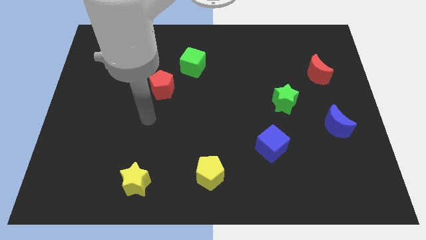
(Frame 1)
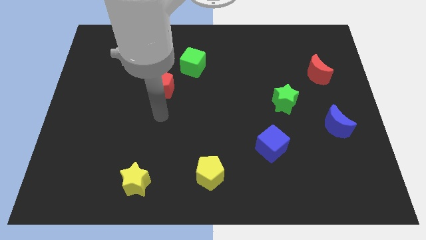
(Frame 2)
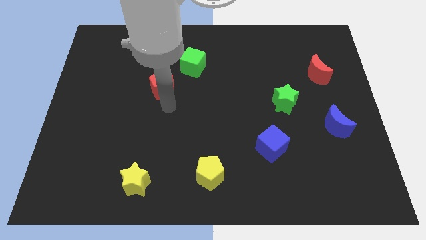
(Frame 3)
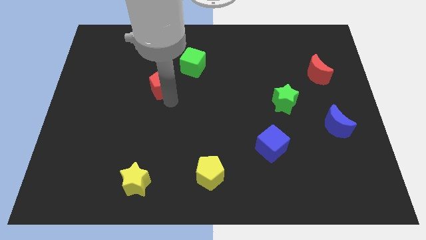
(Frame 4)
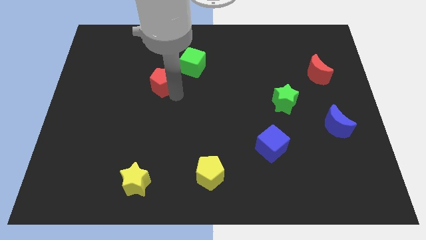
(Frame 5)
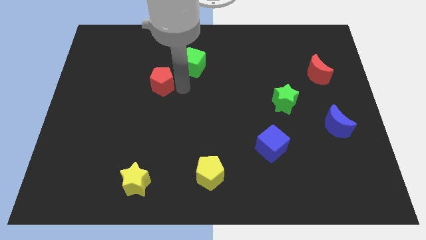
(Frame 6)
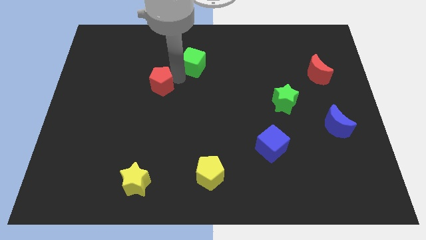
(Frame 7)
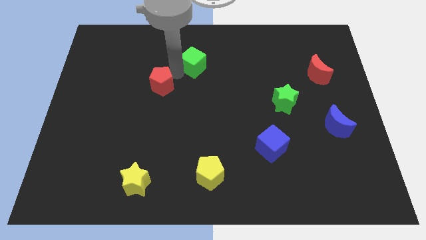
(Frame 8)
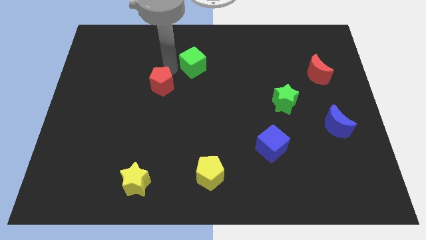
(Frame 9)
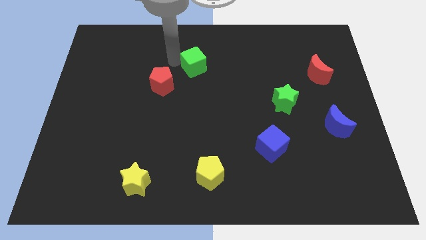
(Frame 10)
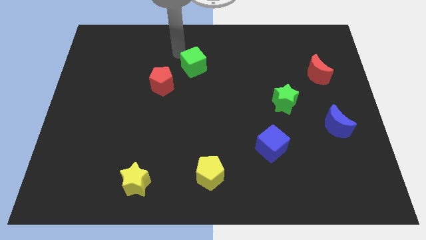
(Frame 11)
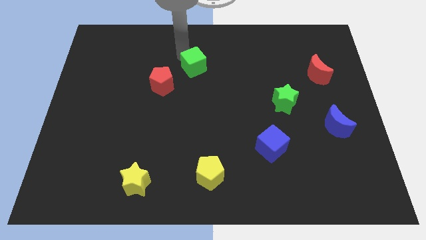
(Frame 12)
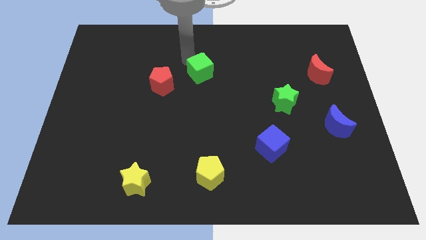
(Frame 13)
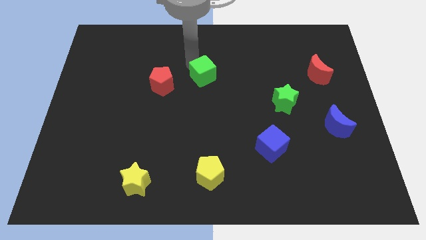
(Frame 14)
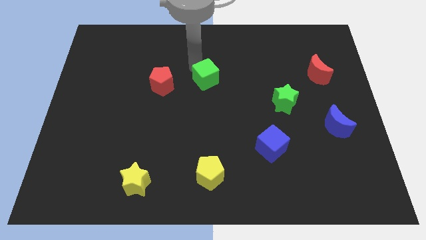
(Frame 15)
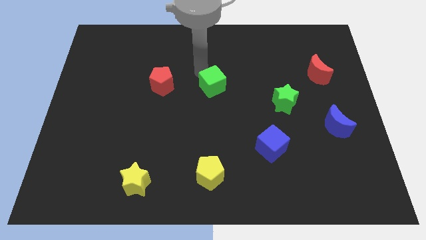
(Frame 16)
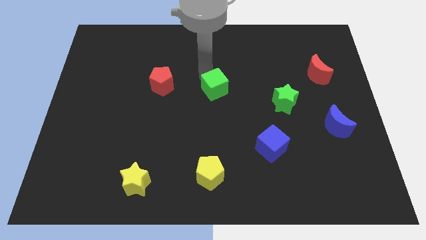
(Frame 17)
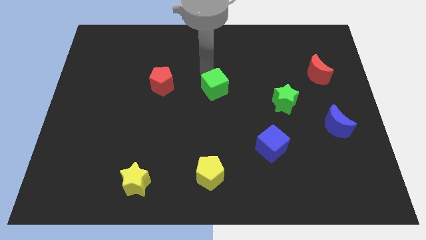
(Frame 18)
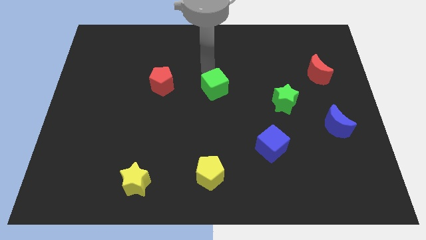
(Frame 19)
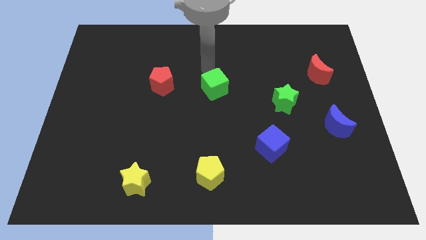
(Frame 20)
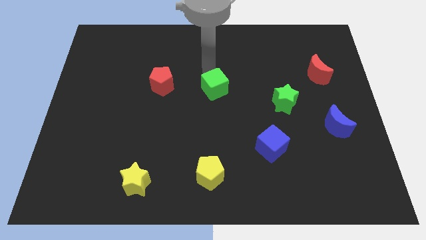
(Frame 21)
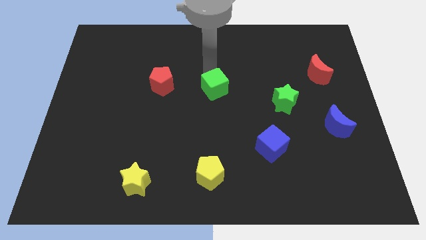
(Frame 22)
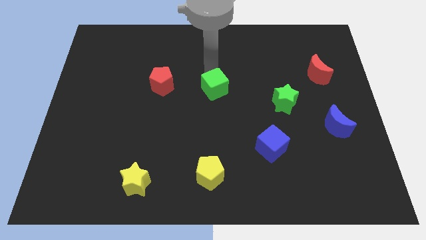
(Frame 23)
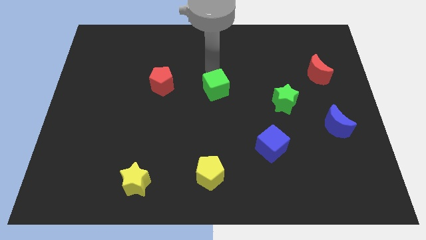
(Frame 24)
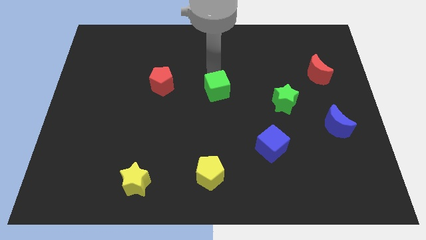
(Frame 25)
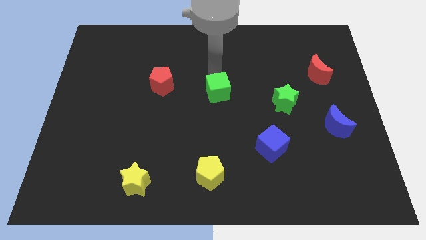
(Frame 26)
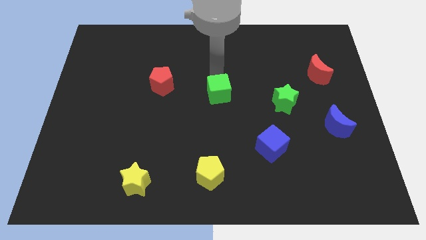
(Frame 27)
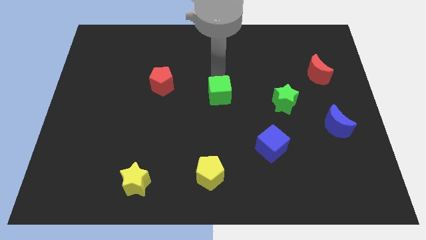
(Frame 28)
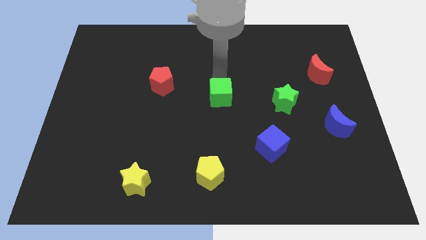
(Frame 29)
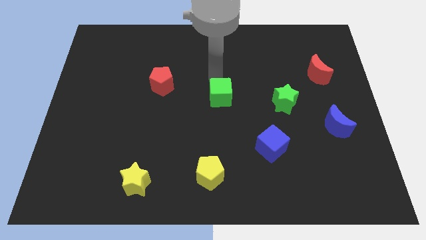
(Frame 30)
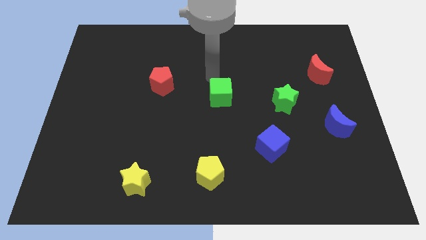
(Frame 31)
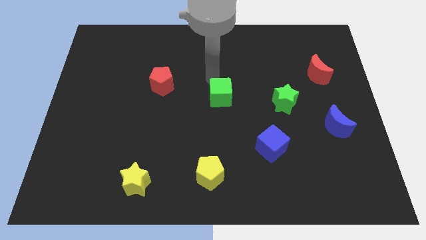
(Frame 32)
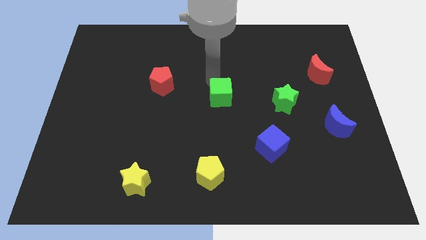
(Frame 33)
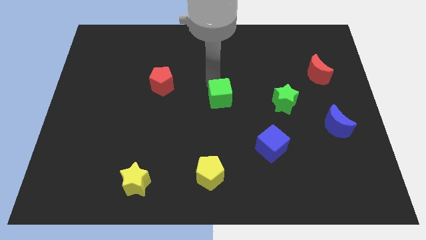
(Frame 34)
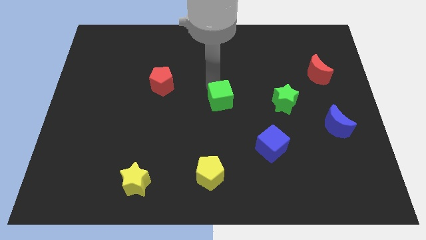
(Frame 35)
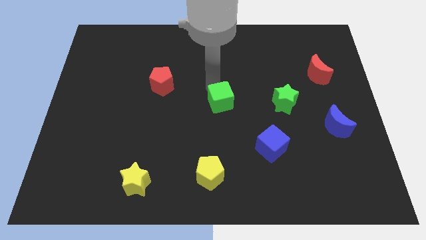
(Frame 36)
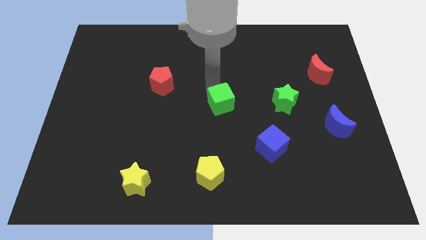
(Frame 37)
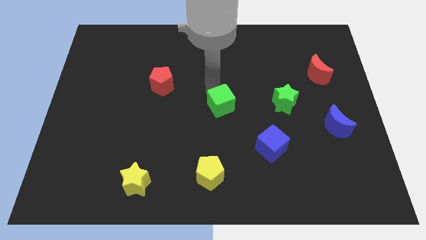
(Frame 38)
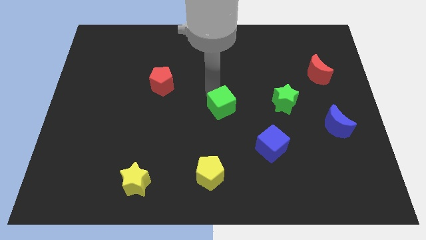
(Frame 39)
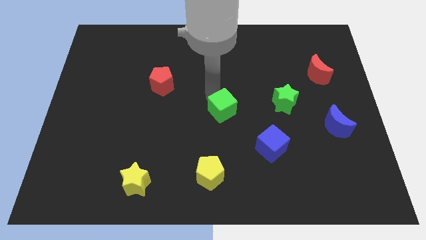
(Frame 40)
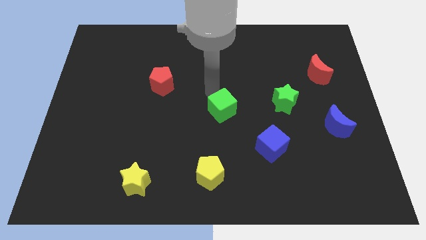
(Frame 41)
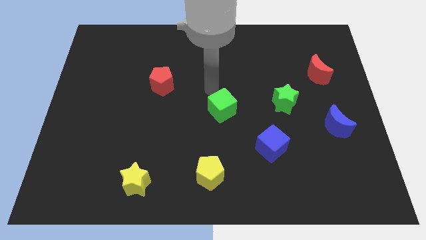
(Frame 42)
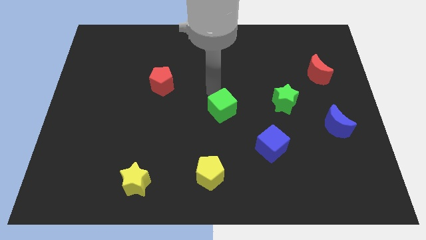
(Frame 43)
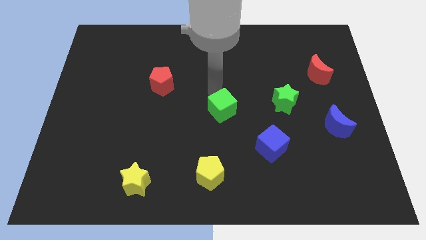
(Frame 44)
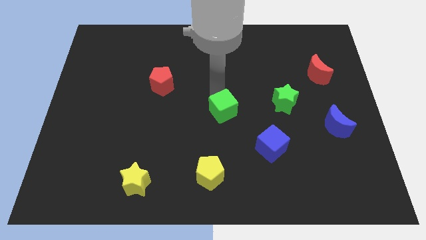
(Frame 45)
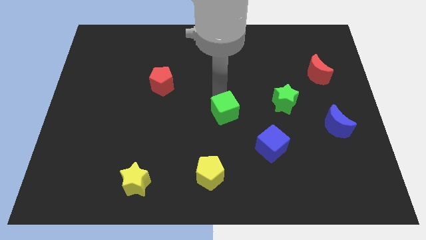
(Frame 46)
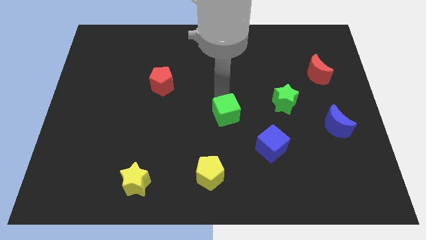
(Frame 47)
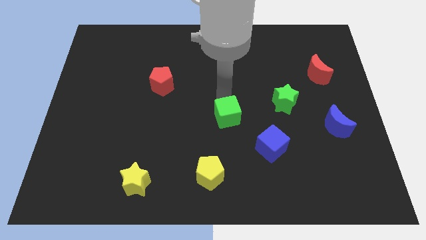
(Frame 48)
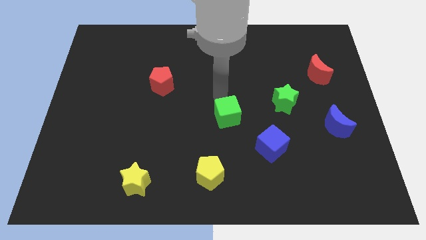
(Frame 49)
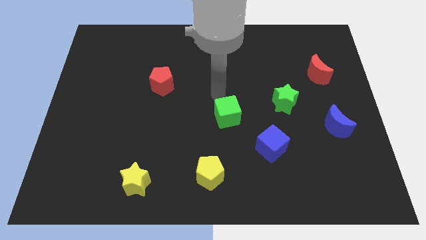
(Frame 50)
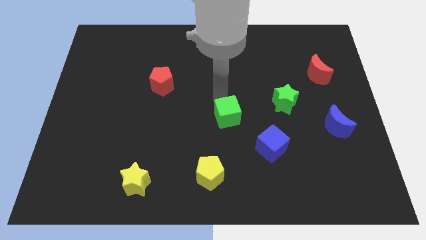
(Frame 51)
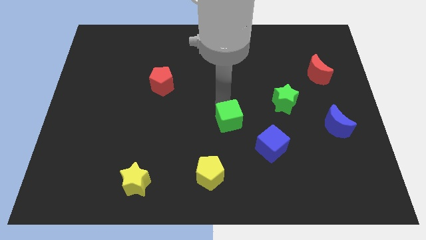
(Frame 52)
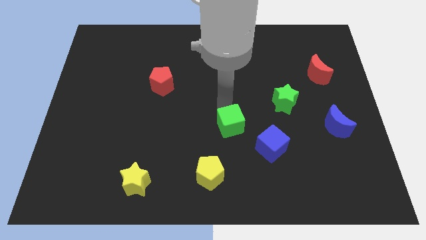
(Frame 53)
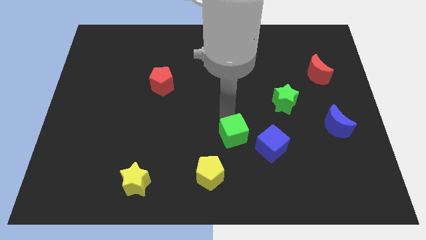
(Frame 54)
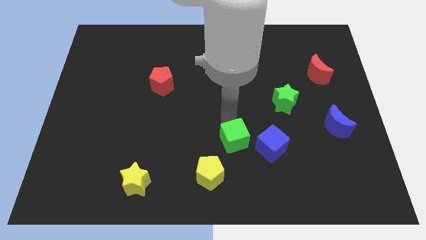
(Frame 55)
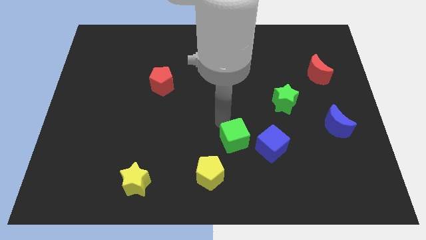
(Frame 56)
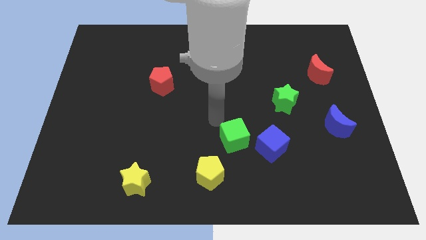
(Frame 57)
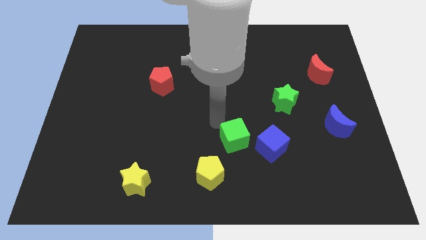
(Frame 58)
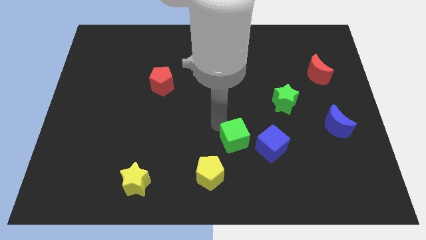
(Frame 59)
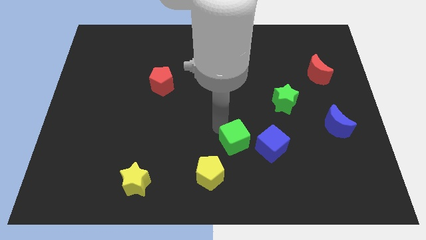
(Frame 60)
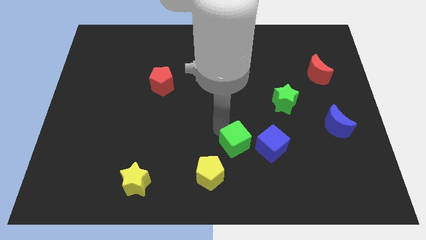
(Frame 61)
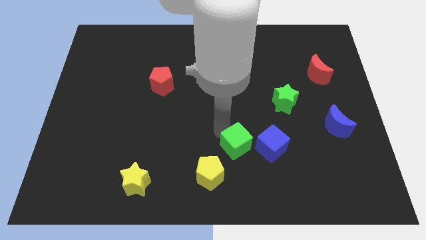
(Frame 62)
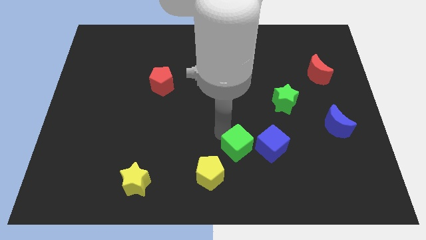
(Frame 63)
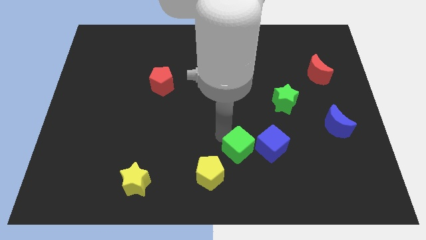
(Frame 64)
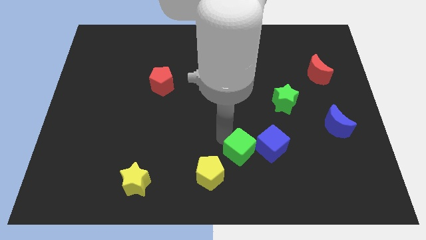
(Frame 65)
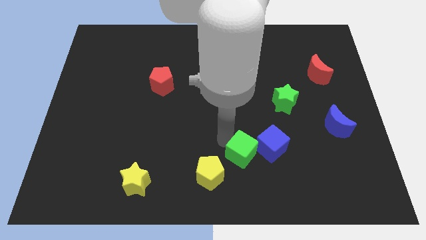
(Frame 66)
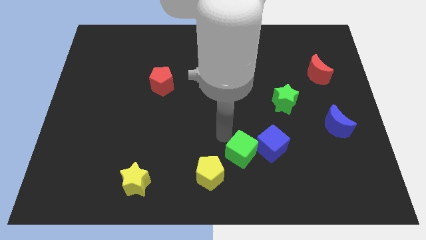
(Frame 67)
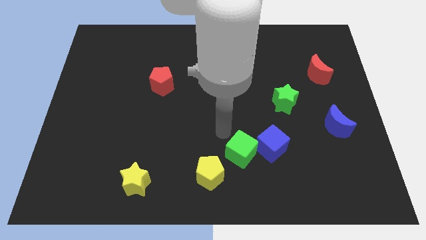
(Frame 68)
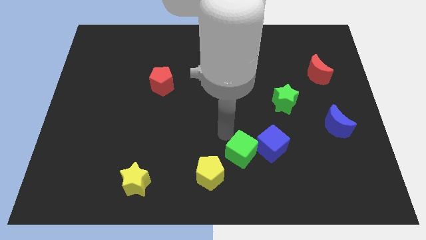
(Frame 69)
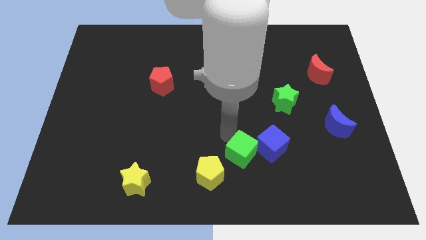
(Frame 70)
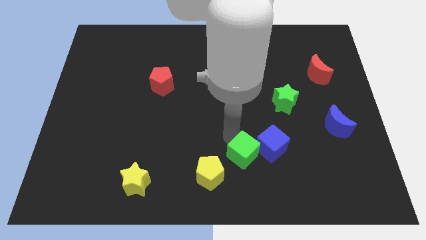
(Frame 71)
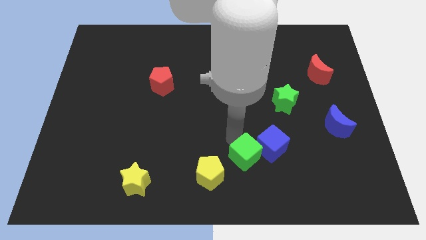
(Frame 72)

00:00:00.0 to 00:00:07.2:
push the green cube just right of the yellow pentagon

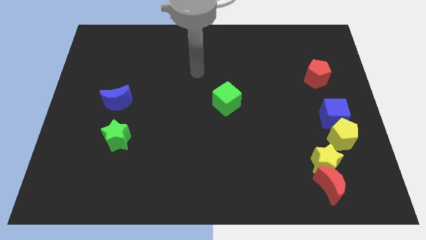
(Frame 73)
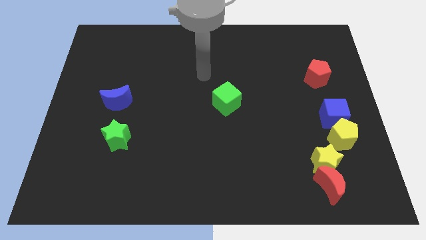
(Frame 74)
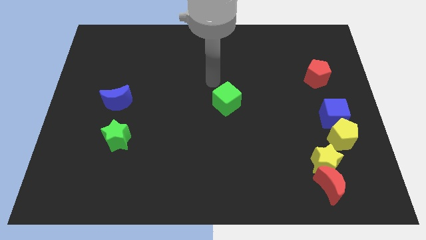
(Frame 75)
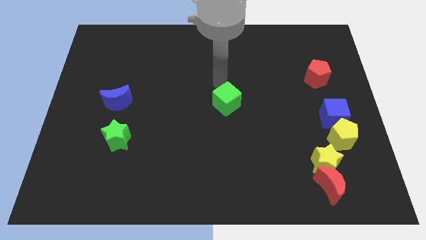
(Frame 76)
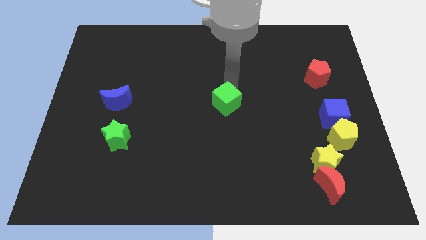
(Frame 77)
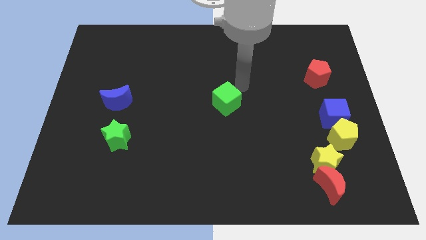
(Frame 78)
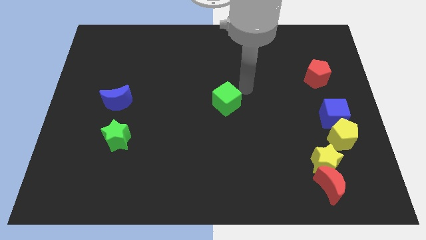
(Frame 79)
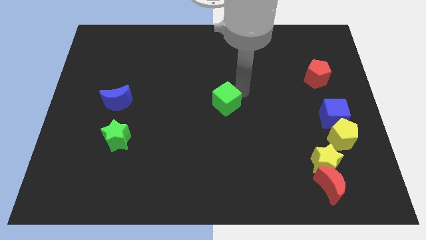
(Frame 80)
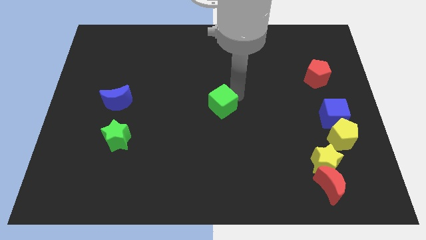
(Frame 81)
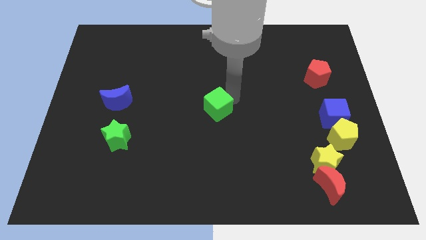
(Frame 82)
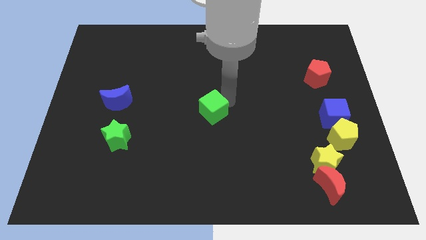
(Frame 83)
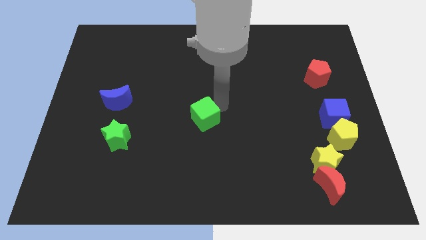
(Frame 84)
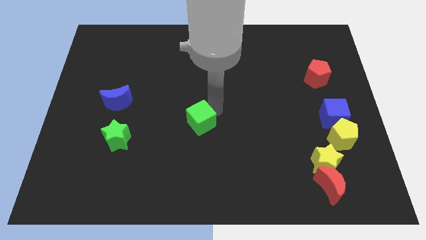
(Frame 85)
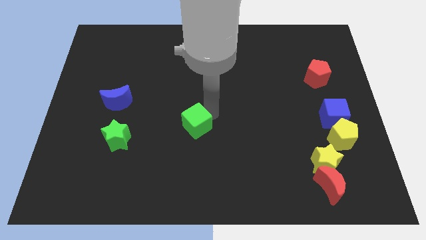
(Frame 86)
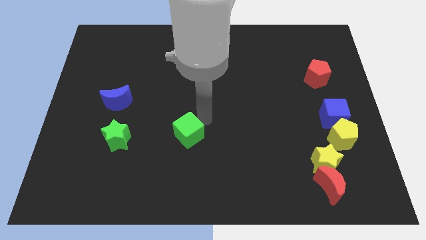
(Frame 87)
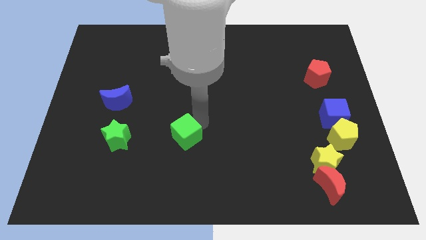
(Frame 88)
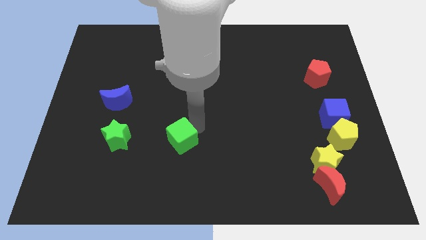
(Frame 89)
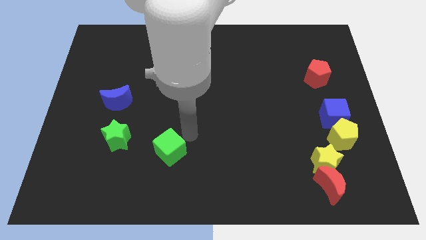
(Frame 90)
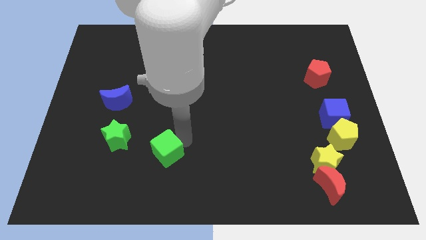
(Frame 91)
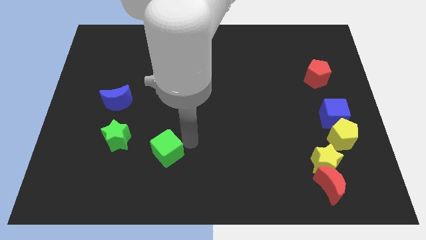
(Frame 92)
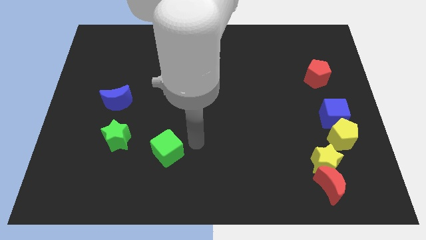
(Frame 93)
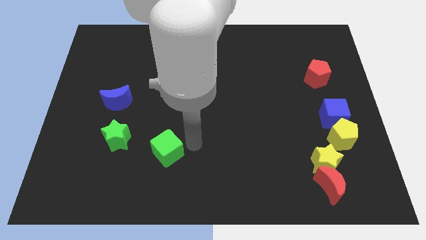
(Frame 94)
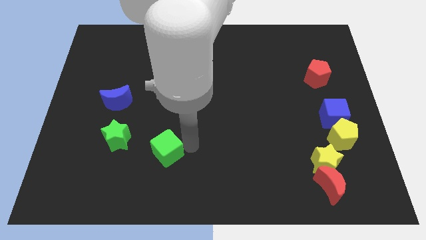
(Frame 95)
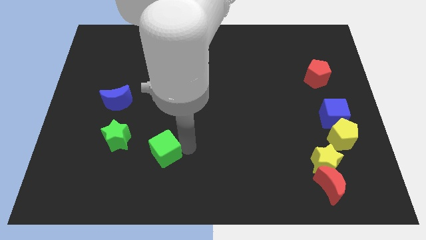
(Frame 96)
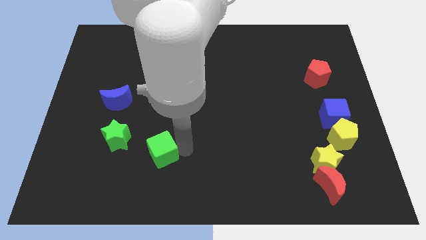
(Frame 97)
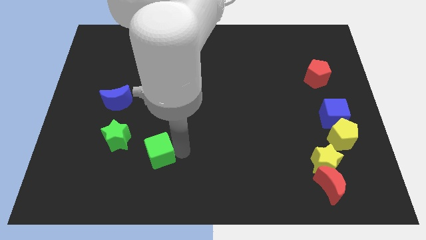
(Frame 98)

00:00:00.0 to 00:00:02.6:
push the green cube to the bottom right of the green star
